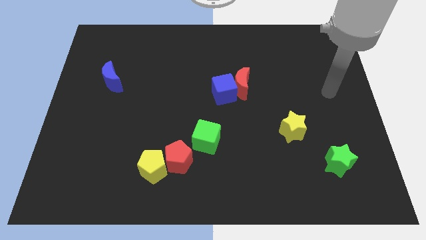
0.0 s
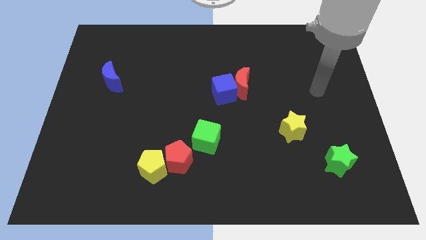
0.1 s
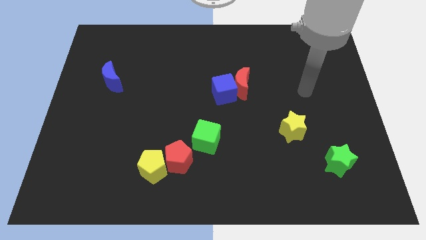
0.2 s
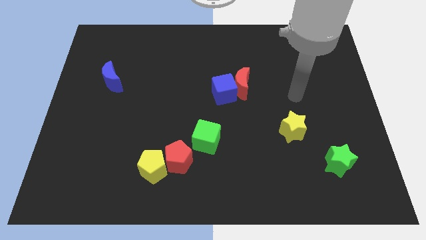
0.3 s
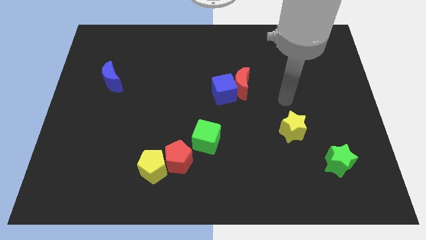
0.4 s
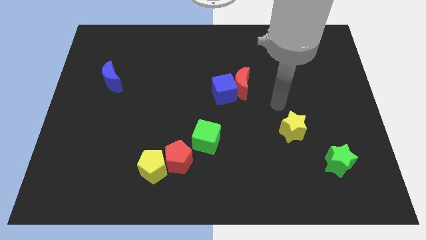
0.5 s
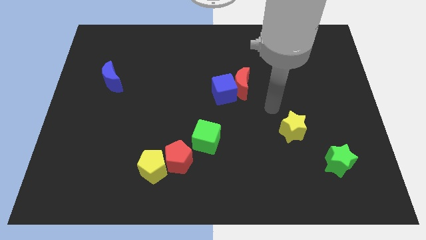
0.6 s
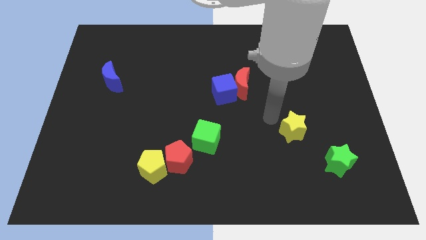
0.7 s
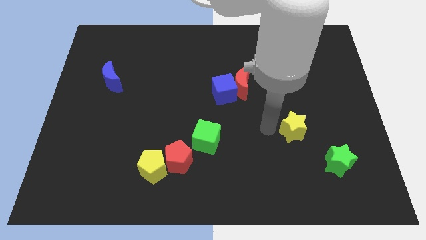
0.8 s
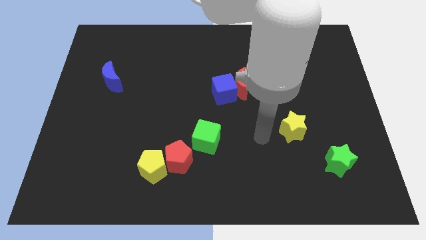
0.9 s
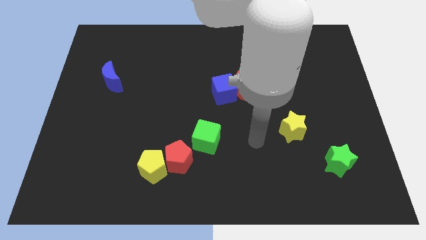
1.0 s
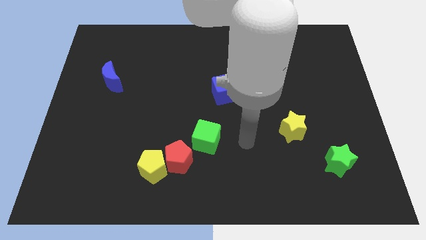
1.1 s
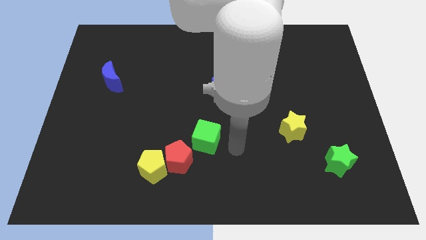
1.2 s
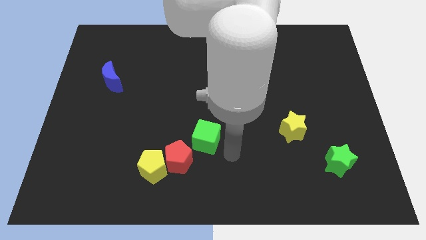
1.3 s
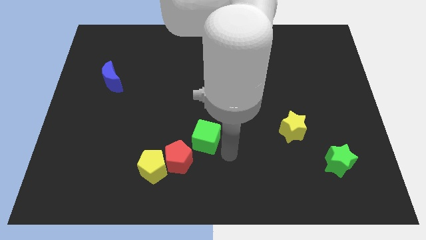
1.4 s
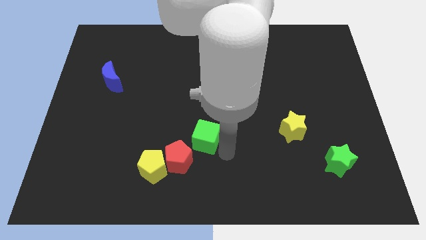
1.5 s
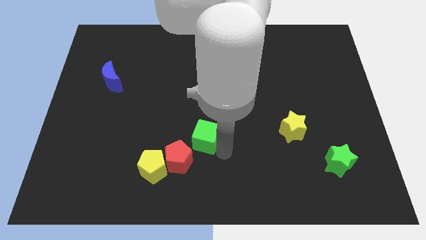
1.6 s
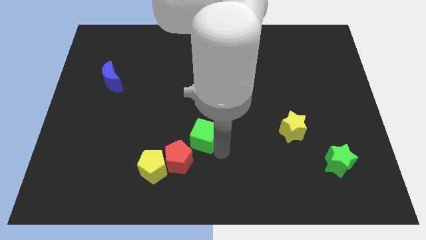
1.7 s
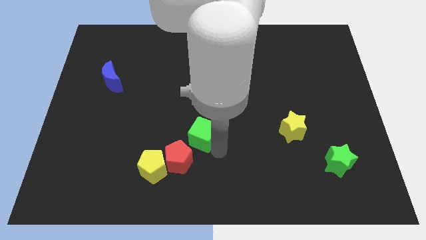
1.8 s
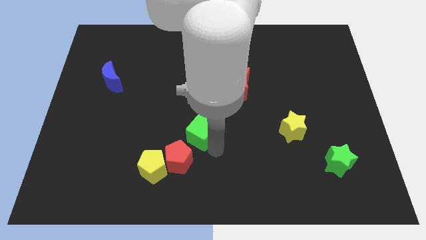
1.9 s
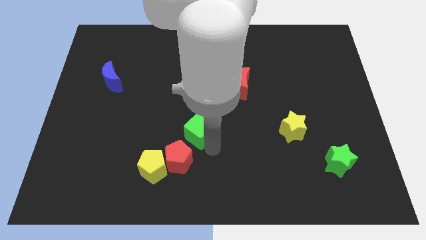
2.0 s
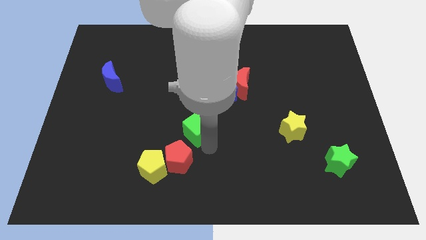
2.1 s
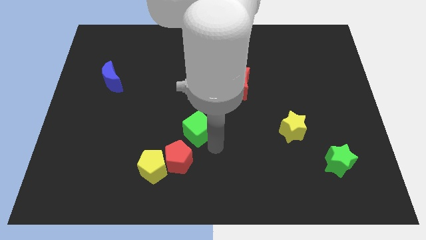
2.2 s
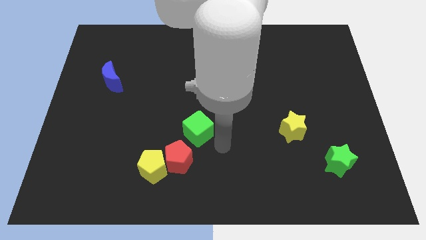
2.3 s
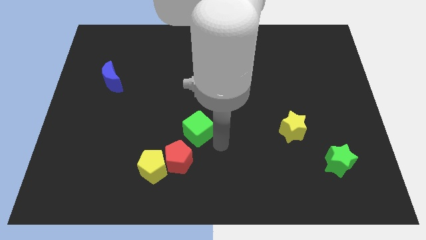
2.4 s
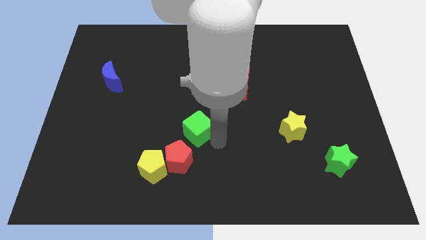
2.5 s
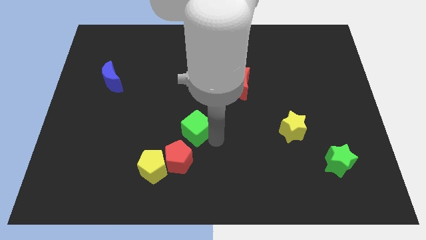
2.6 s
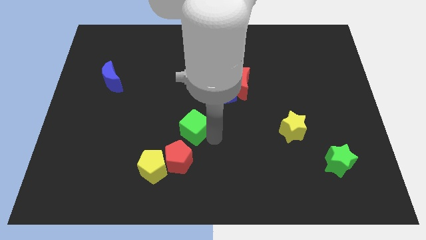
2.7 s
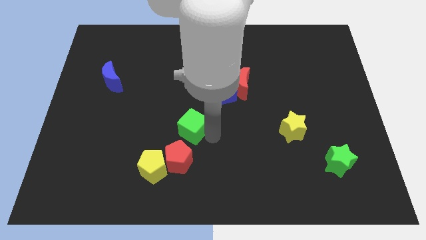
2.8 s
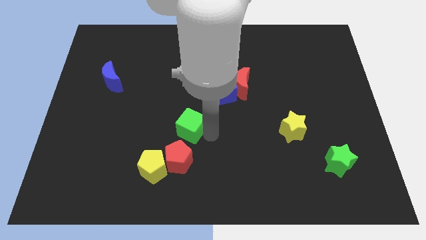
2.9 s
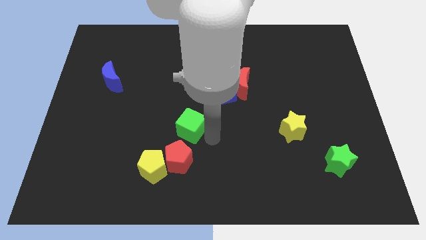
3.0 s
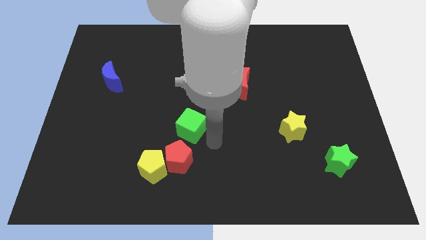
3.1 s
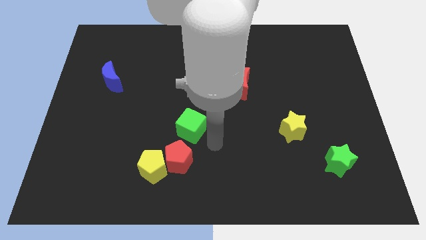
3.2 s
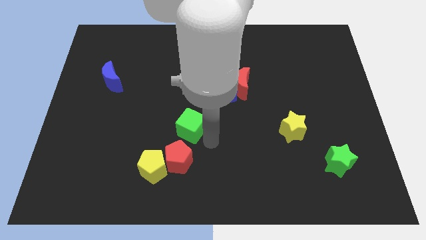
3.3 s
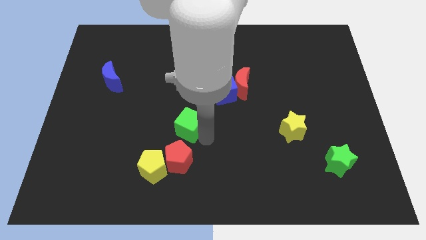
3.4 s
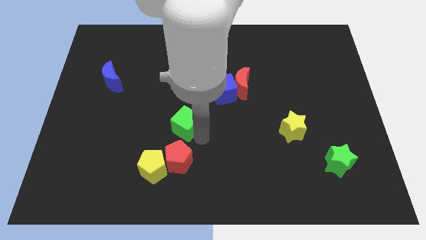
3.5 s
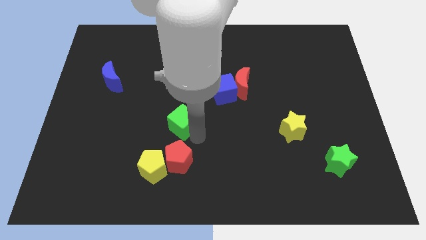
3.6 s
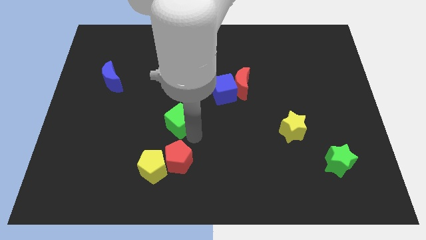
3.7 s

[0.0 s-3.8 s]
slide the green cube a little bit up and left diagonally

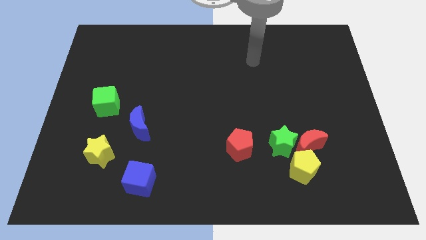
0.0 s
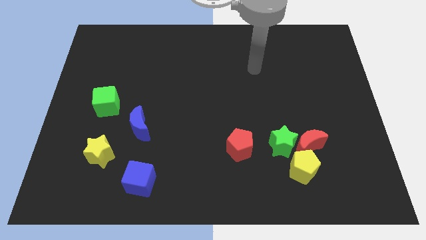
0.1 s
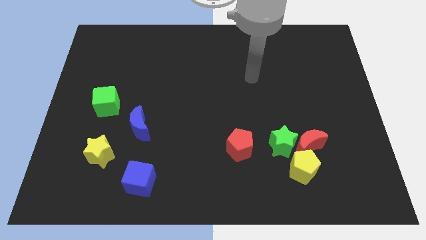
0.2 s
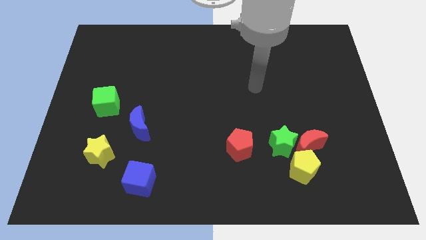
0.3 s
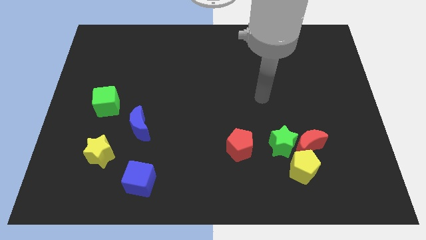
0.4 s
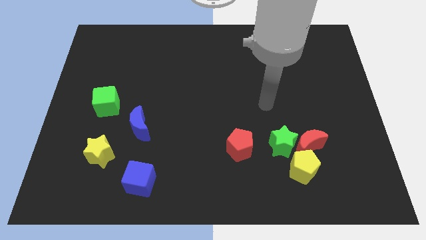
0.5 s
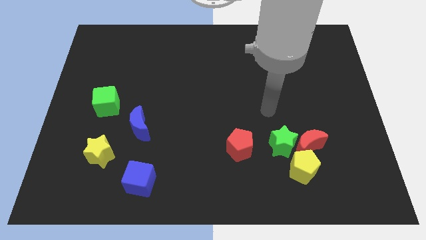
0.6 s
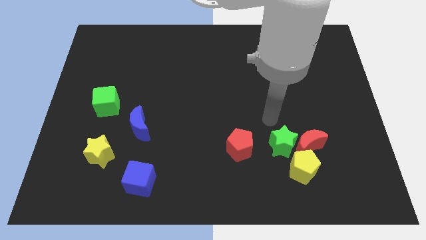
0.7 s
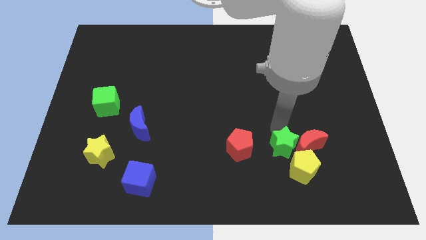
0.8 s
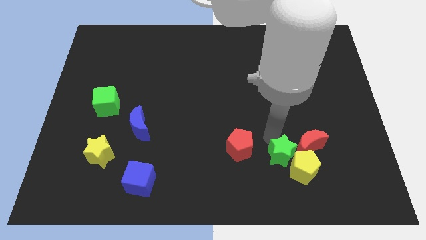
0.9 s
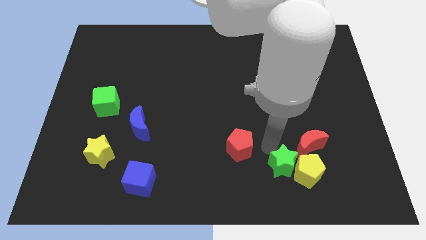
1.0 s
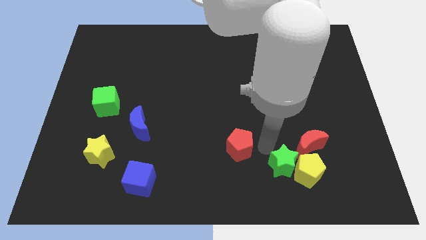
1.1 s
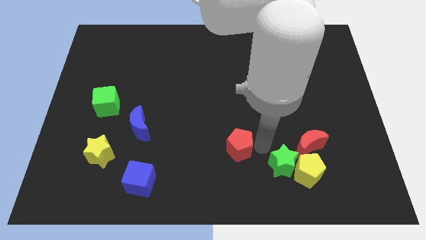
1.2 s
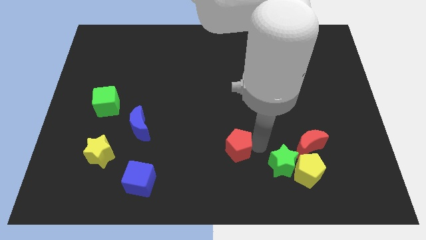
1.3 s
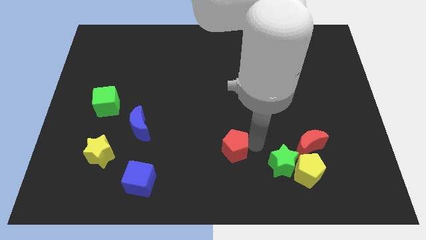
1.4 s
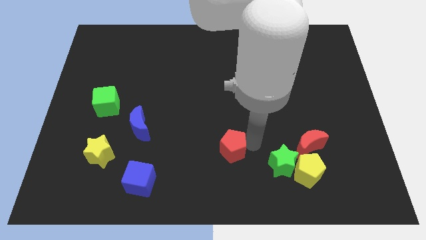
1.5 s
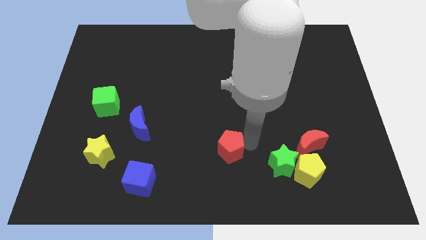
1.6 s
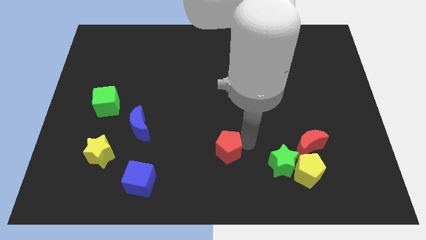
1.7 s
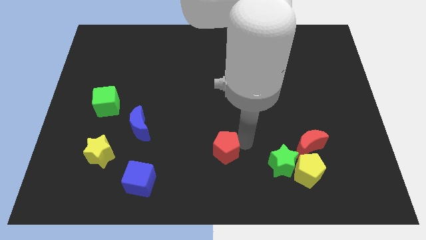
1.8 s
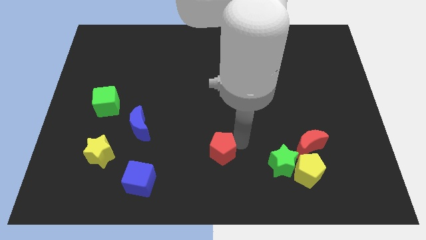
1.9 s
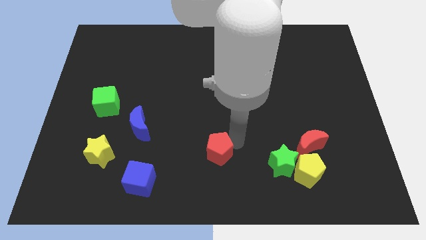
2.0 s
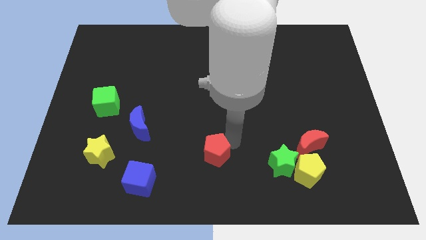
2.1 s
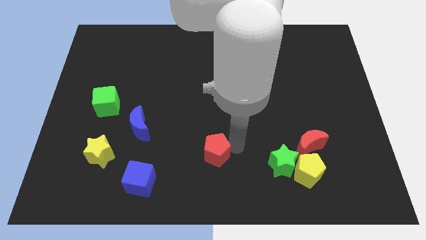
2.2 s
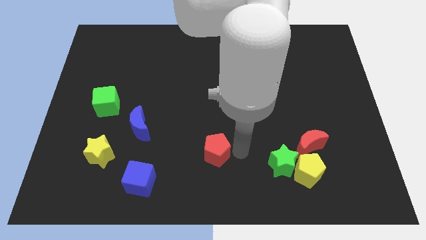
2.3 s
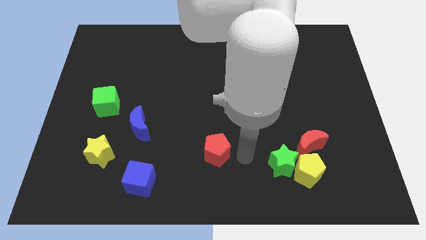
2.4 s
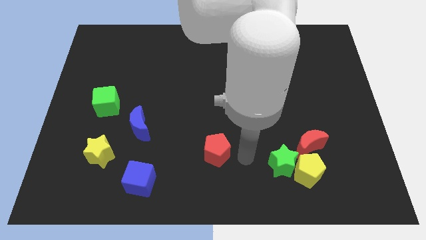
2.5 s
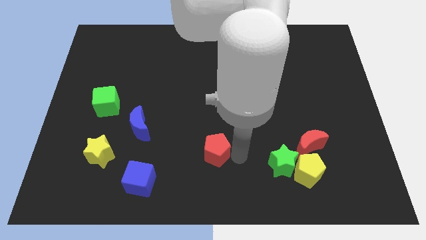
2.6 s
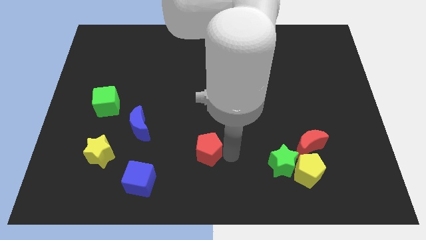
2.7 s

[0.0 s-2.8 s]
slightly slide the red pentagon left

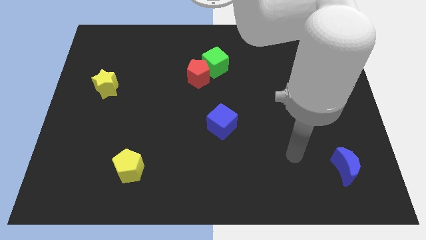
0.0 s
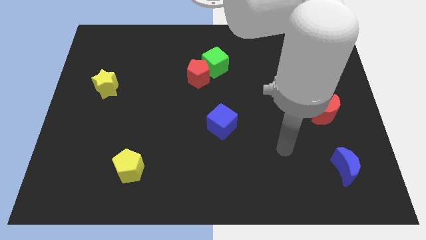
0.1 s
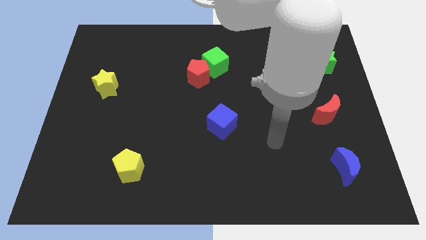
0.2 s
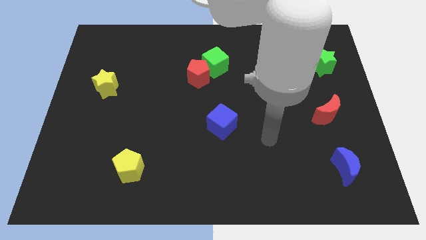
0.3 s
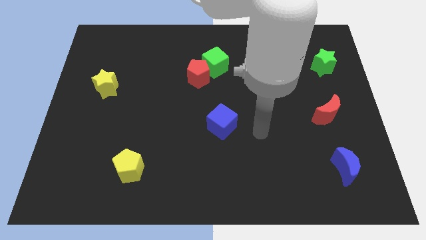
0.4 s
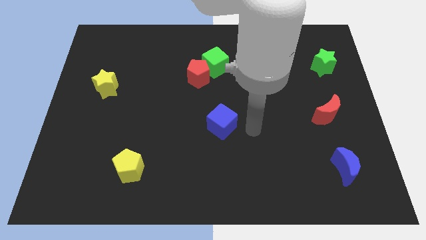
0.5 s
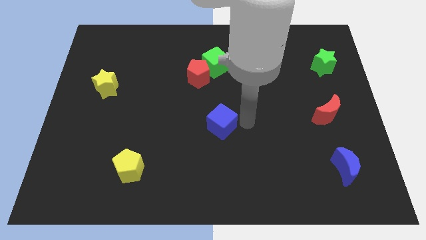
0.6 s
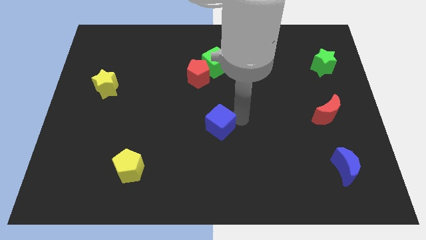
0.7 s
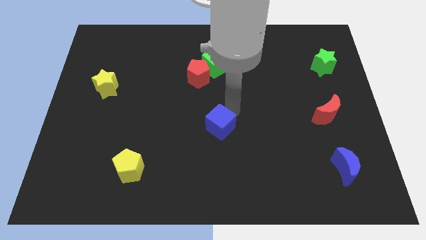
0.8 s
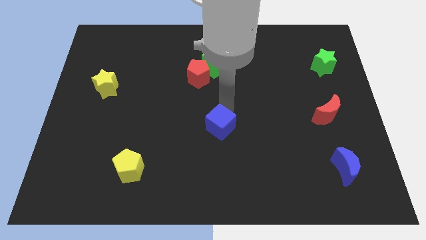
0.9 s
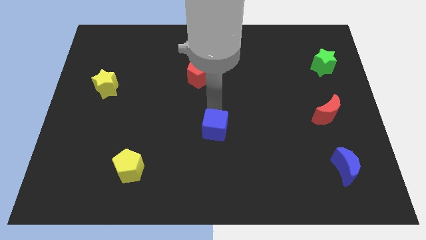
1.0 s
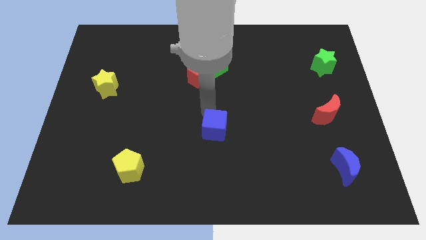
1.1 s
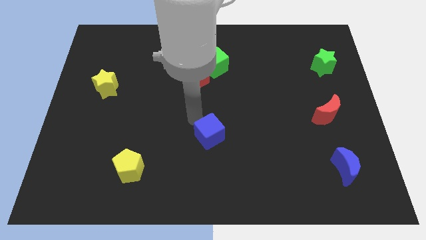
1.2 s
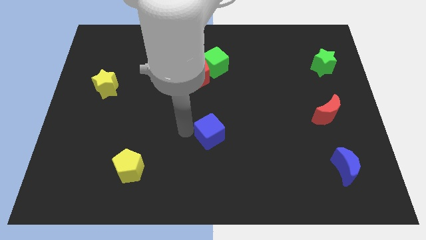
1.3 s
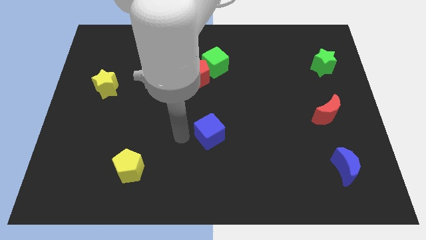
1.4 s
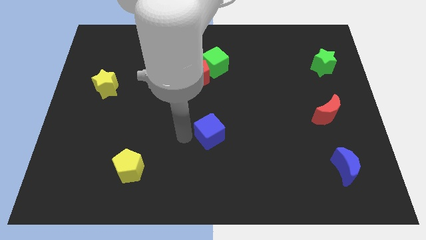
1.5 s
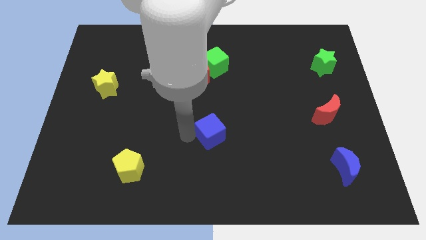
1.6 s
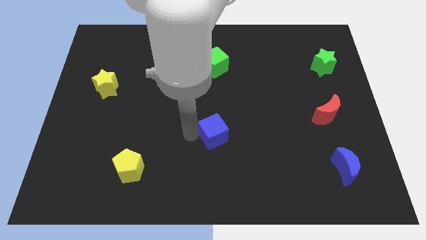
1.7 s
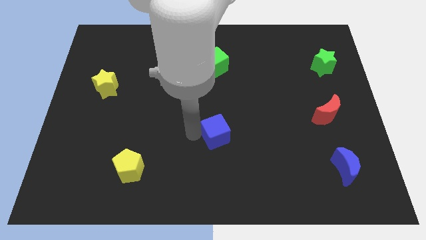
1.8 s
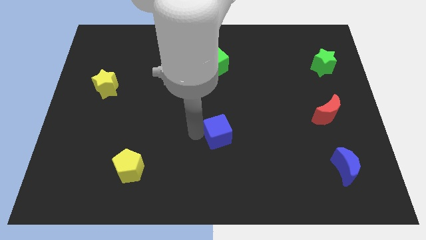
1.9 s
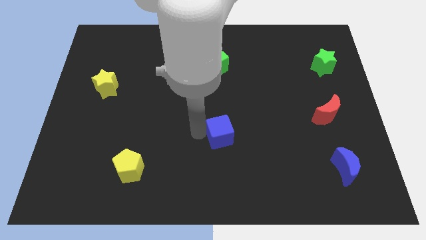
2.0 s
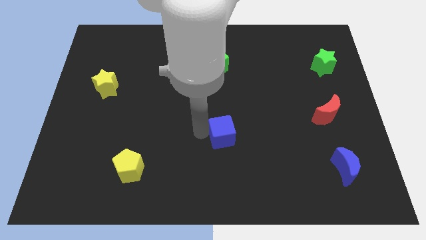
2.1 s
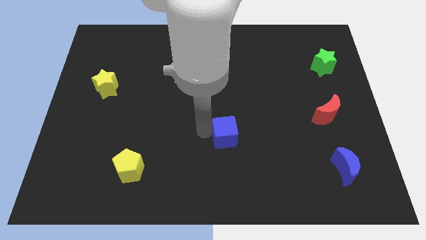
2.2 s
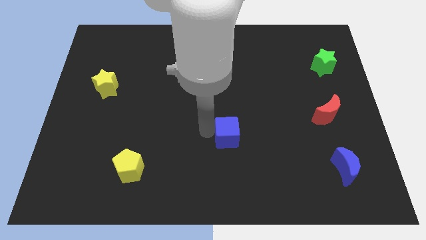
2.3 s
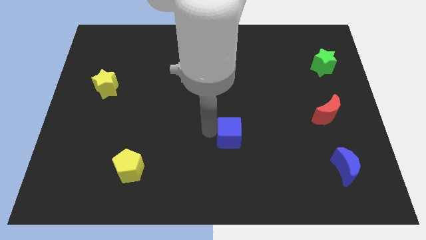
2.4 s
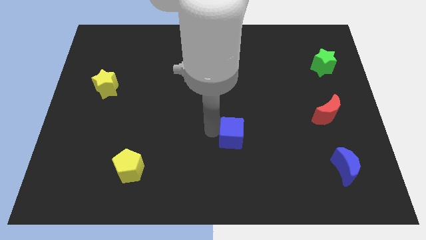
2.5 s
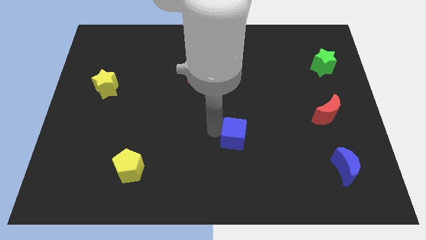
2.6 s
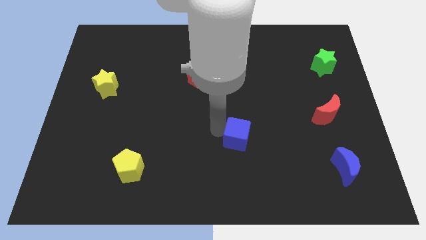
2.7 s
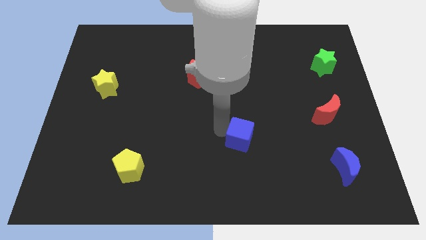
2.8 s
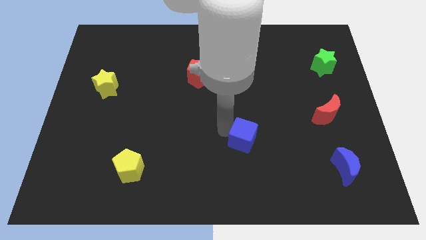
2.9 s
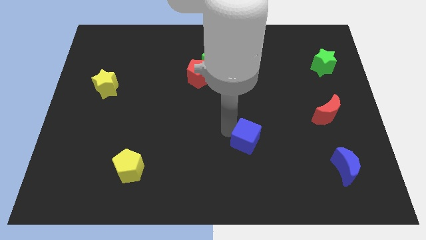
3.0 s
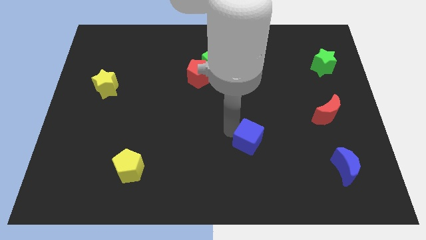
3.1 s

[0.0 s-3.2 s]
slide the blue cube down and right diagonally a bit
